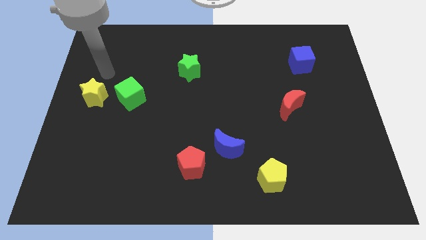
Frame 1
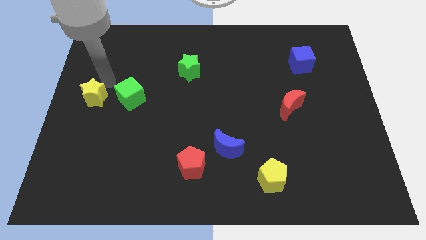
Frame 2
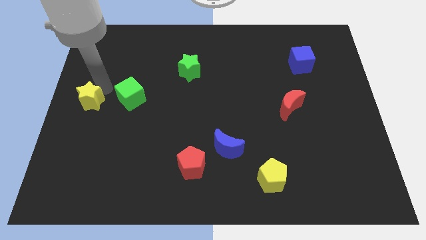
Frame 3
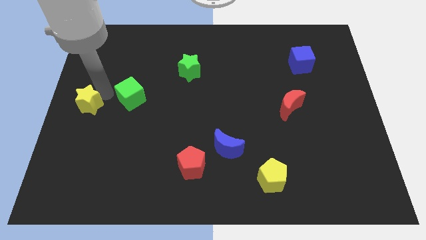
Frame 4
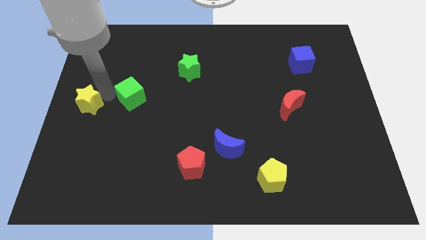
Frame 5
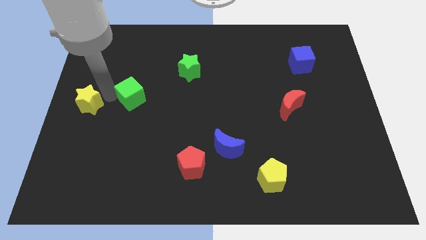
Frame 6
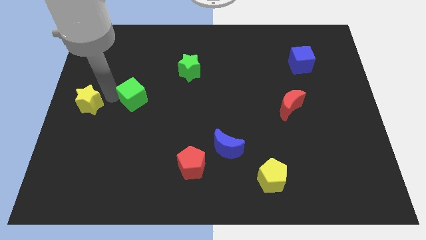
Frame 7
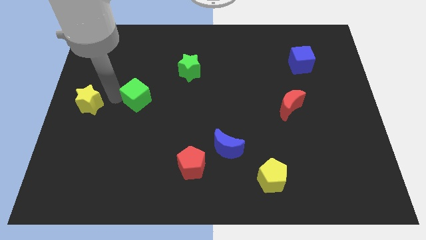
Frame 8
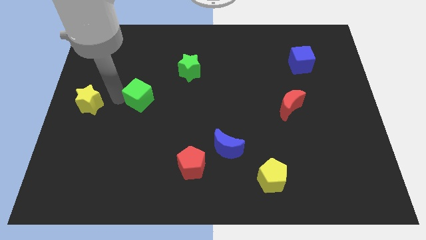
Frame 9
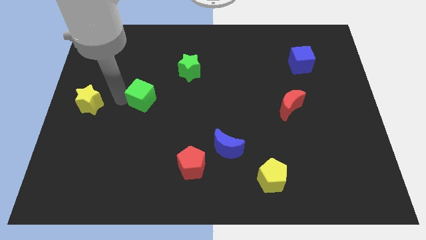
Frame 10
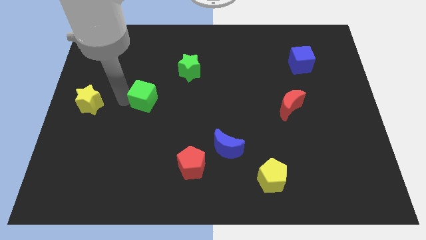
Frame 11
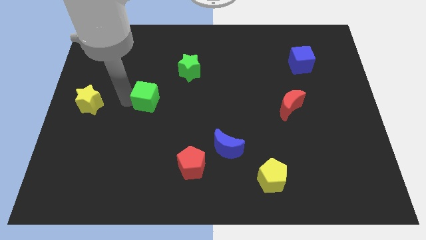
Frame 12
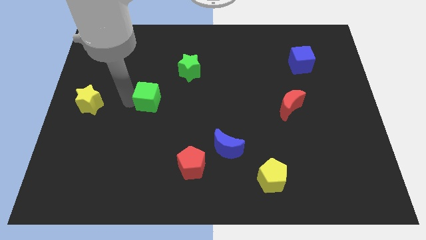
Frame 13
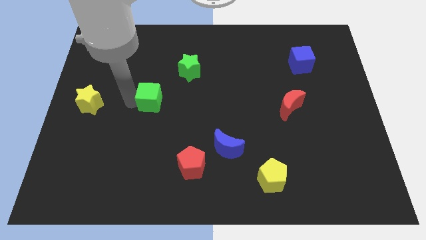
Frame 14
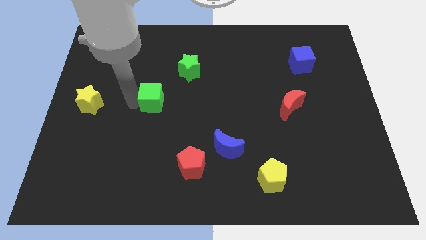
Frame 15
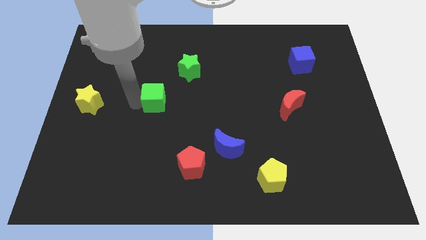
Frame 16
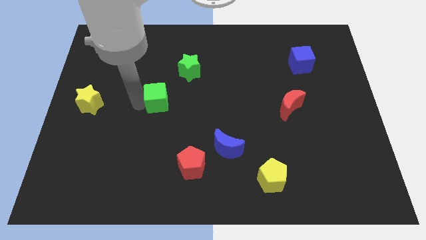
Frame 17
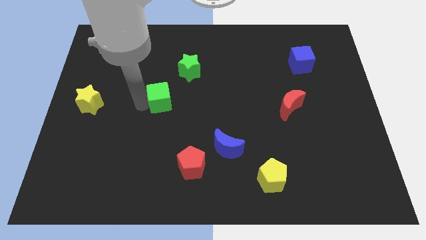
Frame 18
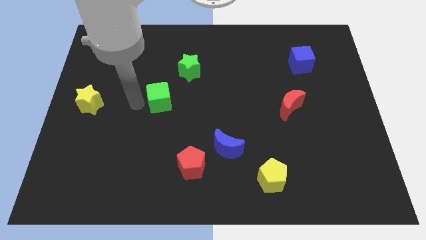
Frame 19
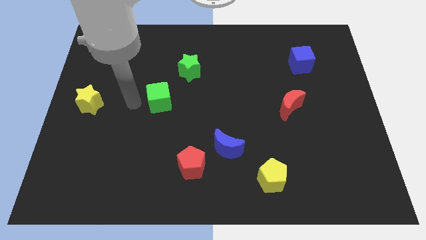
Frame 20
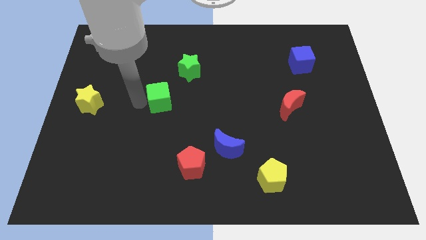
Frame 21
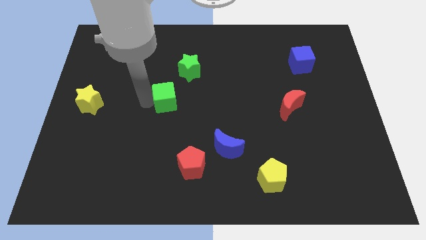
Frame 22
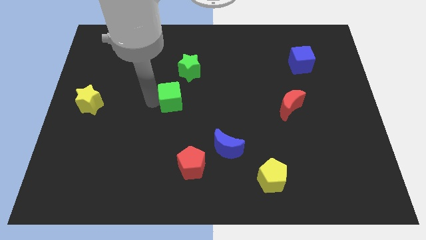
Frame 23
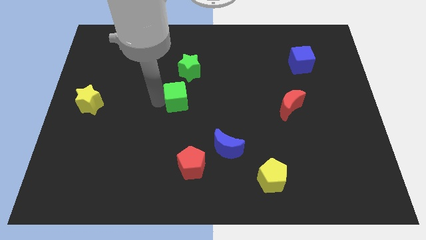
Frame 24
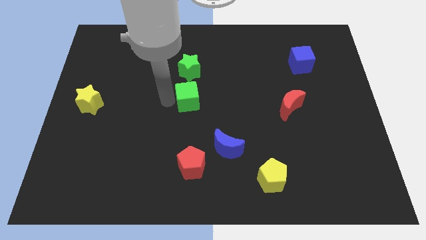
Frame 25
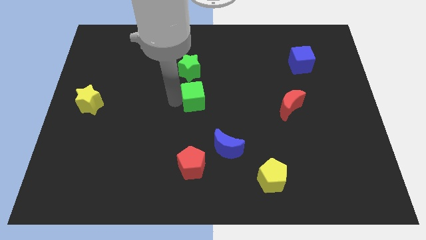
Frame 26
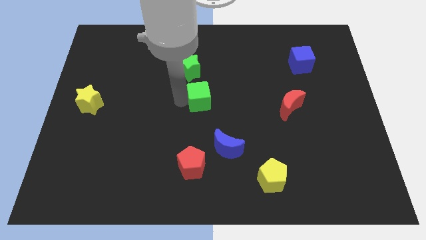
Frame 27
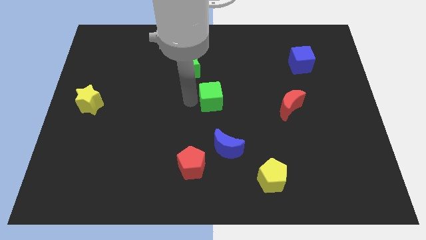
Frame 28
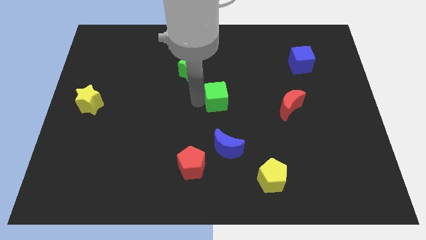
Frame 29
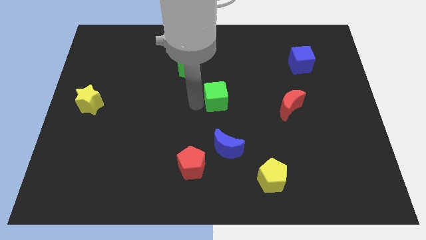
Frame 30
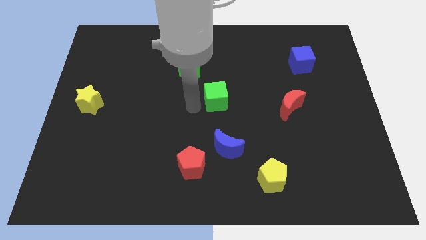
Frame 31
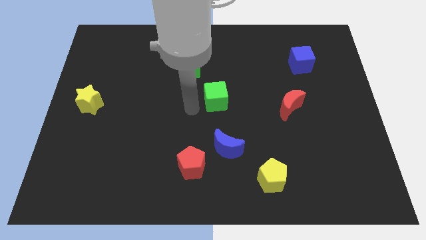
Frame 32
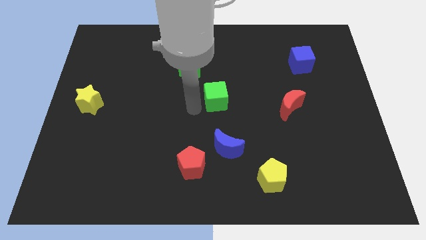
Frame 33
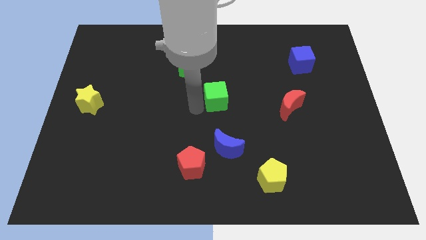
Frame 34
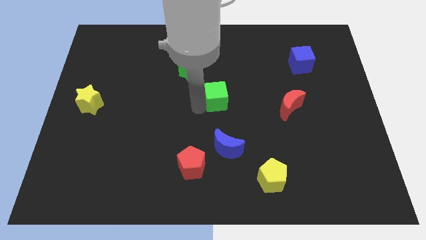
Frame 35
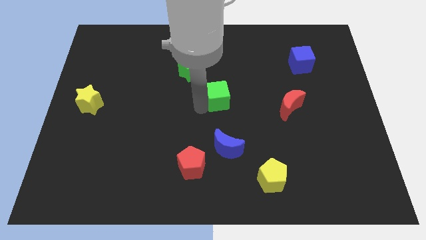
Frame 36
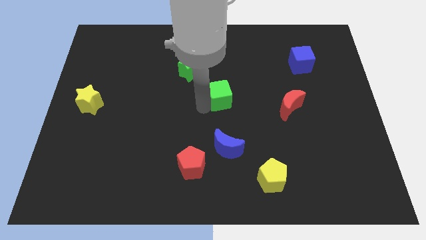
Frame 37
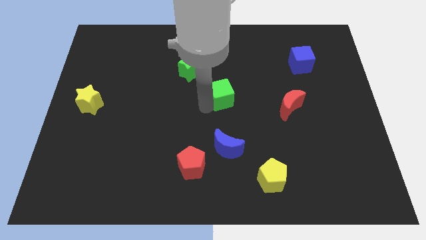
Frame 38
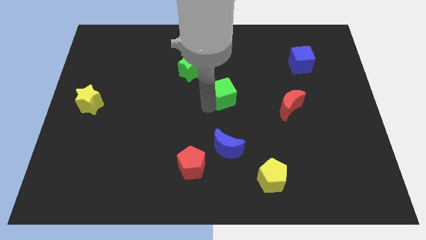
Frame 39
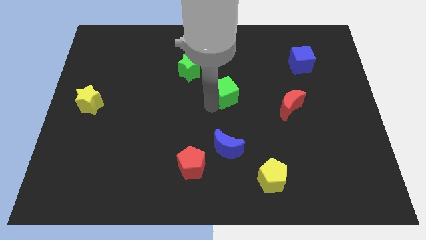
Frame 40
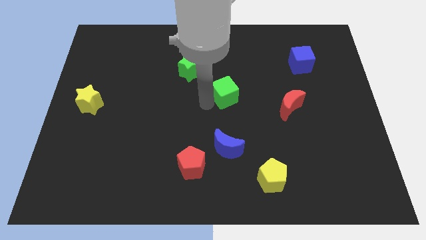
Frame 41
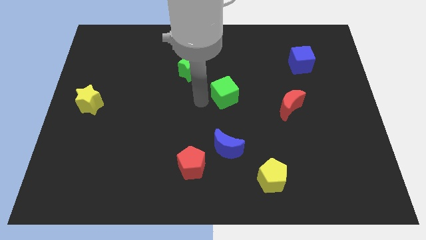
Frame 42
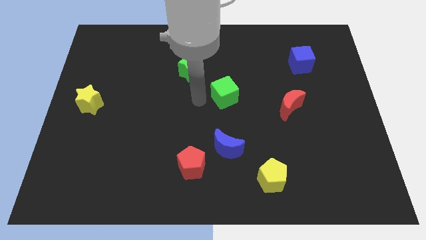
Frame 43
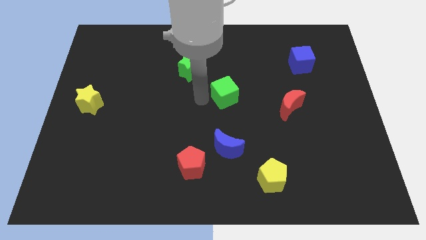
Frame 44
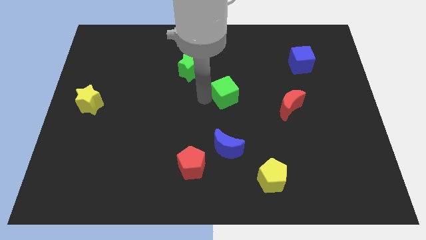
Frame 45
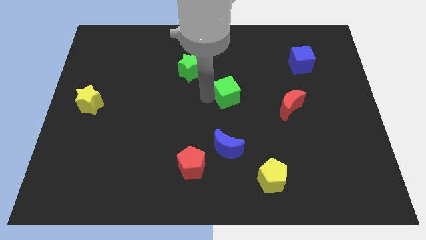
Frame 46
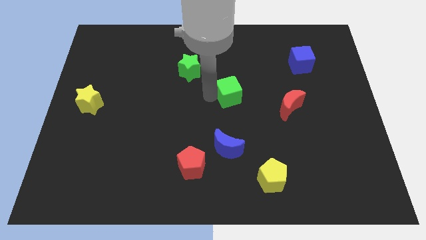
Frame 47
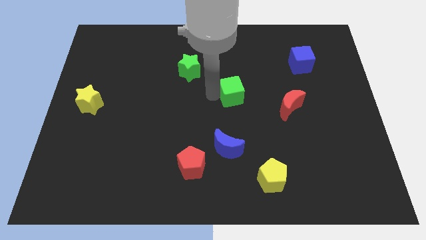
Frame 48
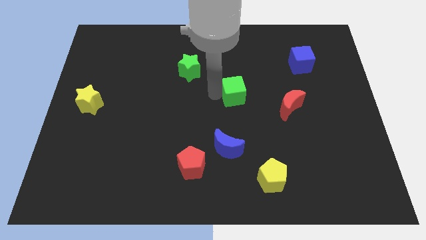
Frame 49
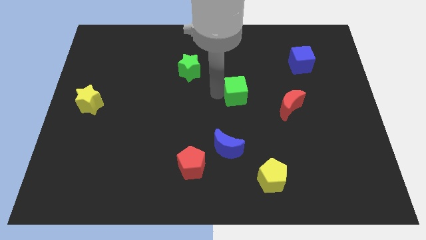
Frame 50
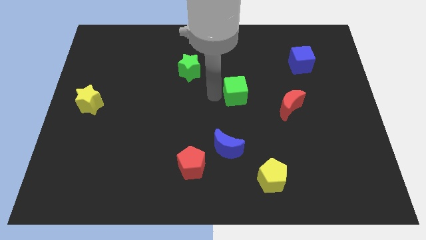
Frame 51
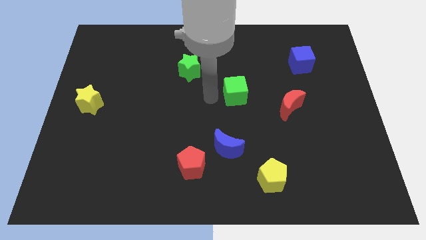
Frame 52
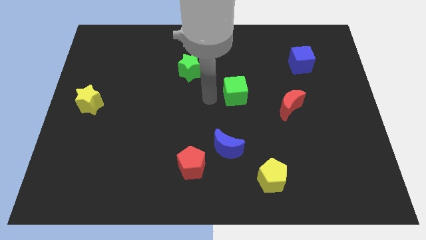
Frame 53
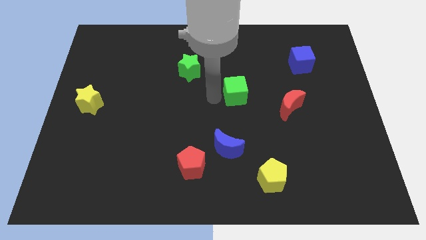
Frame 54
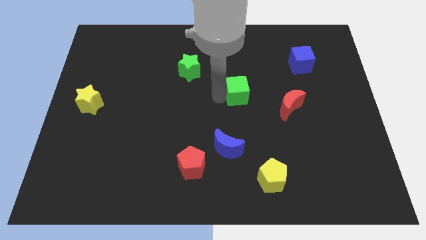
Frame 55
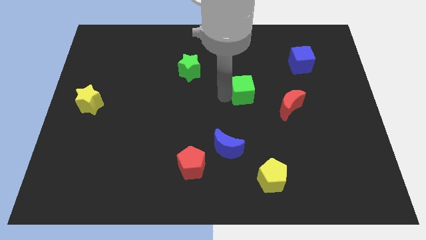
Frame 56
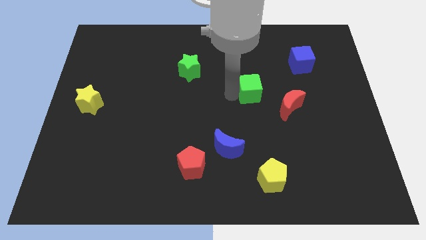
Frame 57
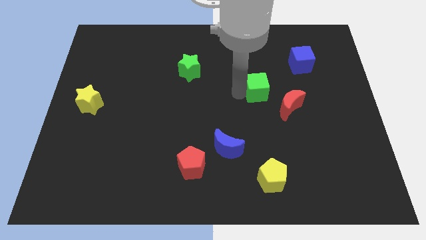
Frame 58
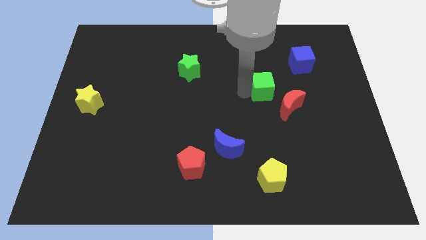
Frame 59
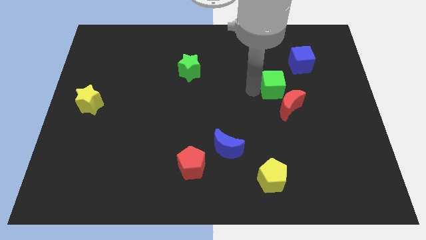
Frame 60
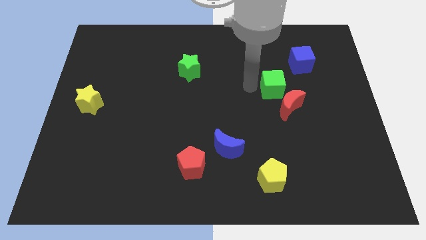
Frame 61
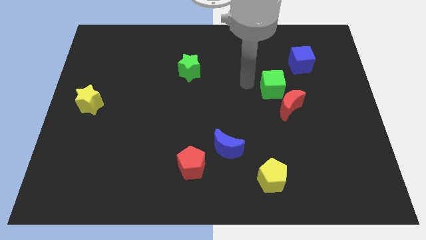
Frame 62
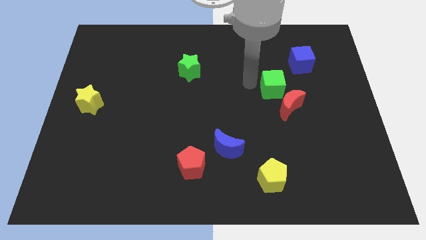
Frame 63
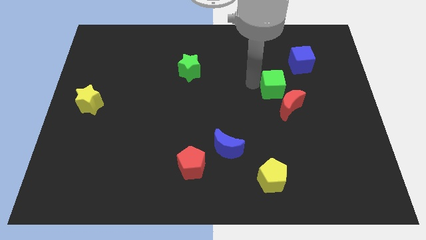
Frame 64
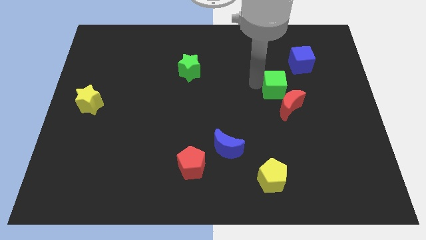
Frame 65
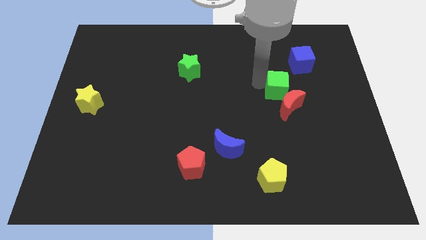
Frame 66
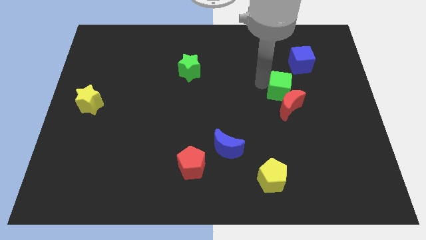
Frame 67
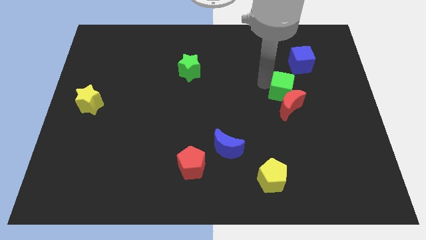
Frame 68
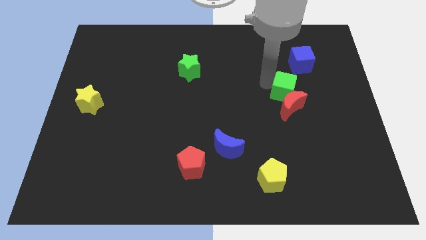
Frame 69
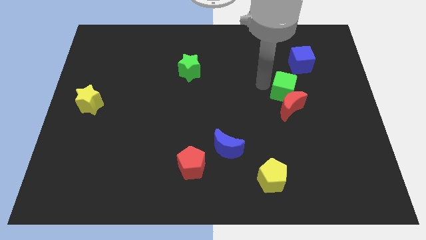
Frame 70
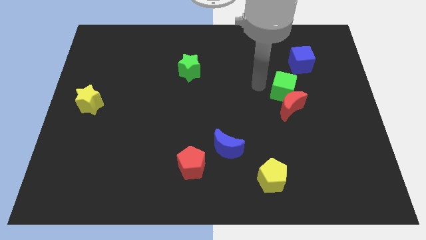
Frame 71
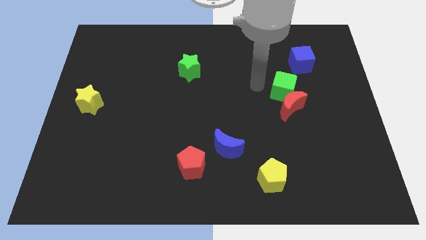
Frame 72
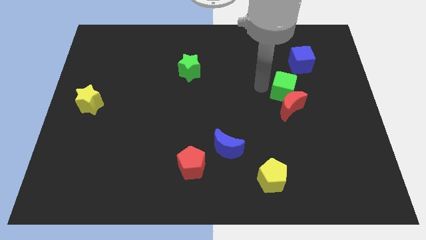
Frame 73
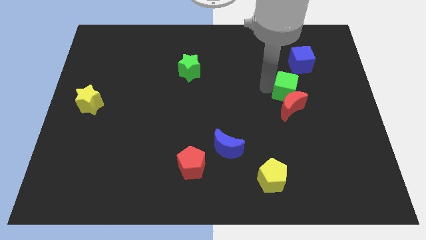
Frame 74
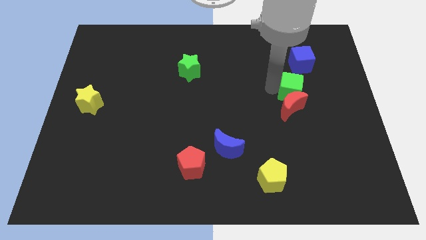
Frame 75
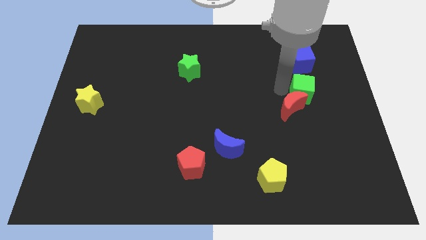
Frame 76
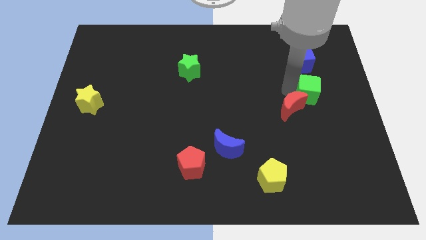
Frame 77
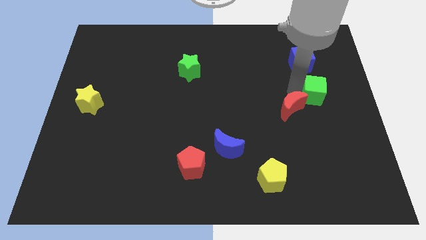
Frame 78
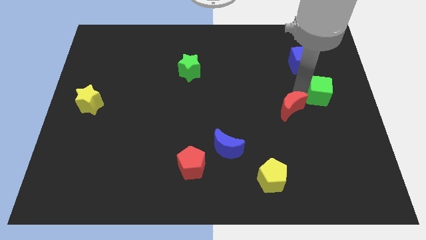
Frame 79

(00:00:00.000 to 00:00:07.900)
move the green cube to the center right

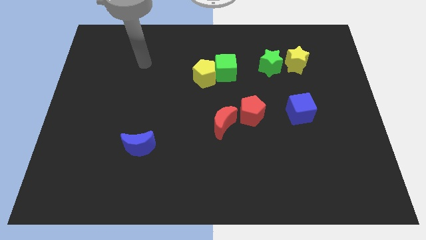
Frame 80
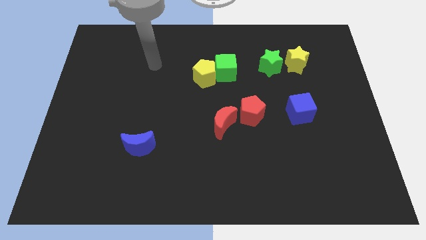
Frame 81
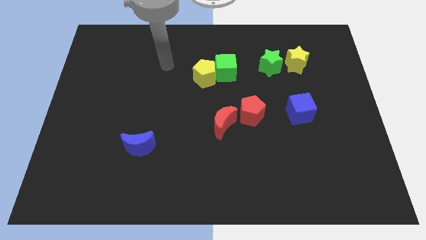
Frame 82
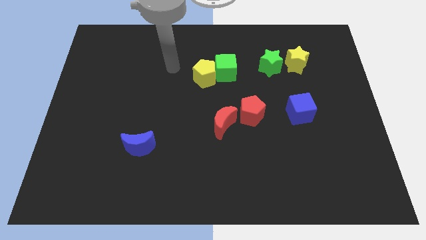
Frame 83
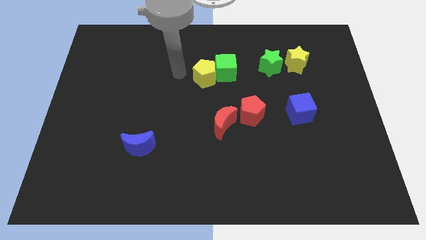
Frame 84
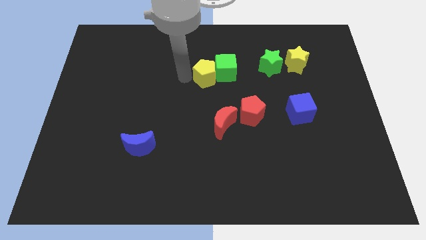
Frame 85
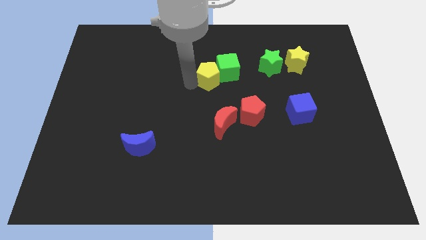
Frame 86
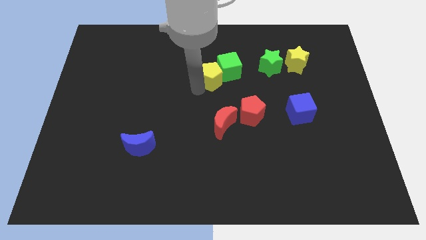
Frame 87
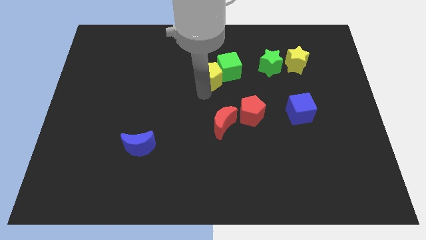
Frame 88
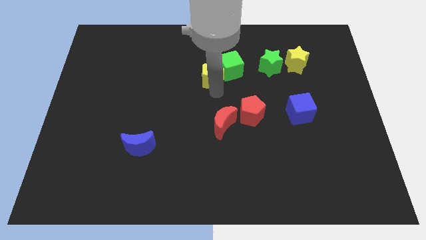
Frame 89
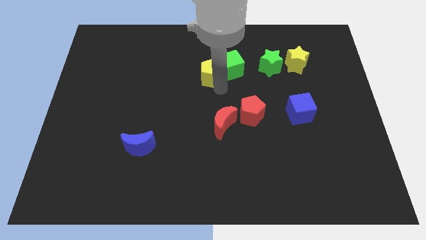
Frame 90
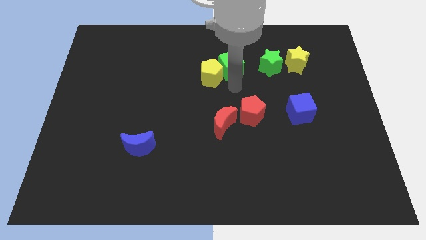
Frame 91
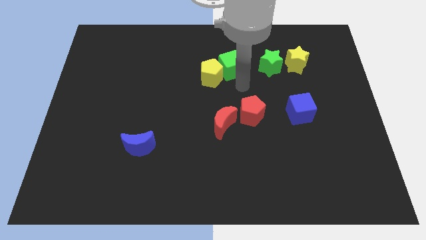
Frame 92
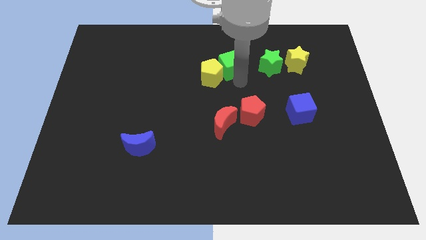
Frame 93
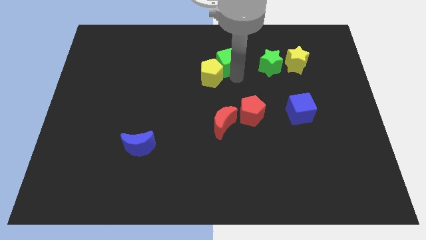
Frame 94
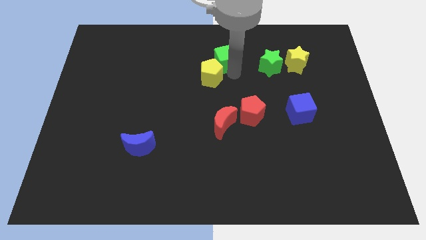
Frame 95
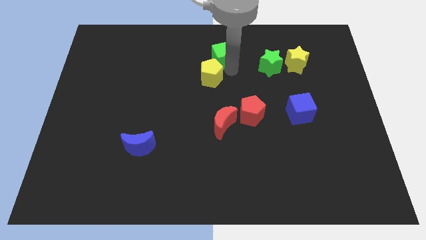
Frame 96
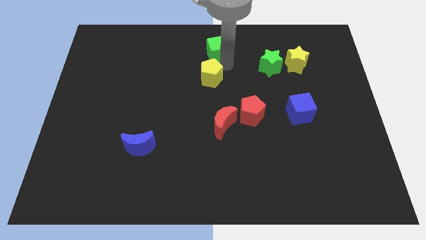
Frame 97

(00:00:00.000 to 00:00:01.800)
move the green cube to the towards your base
